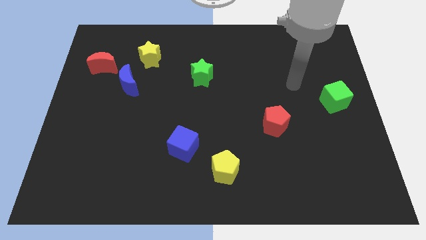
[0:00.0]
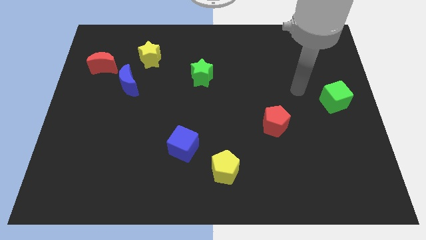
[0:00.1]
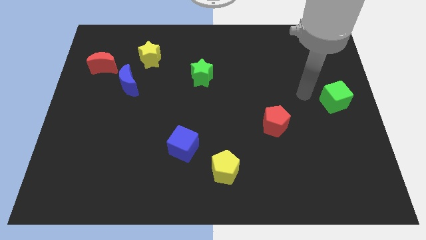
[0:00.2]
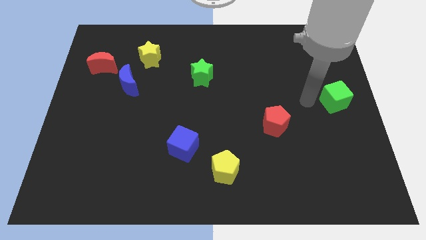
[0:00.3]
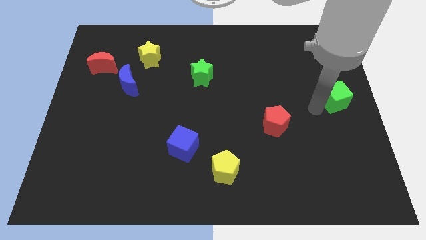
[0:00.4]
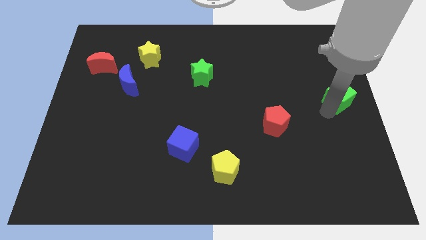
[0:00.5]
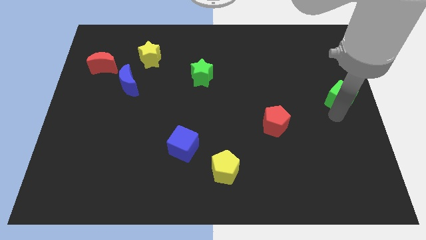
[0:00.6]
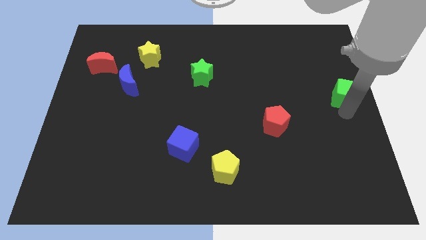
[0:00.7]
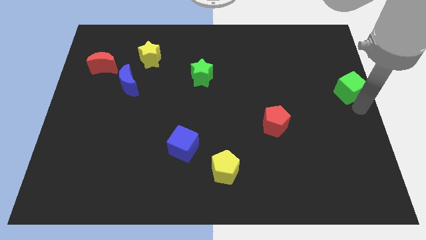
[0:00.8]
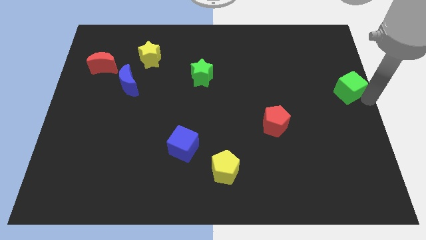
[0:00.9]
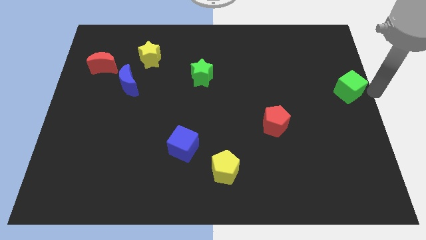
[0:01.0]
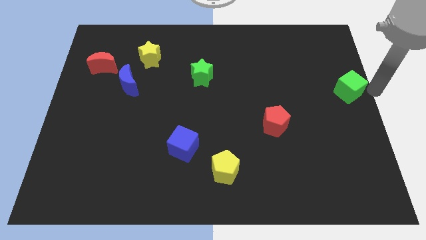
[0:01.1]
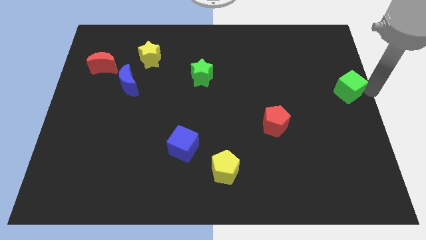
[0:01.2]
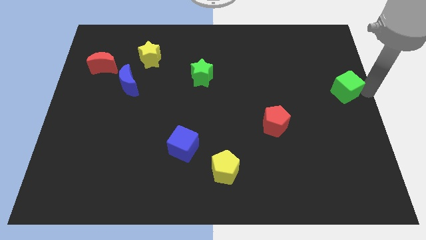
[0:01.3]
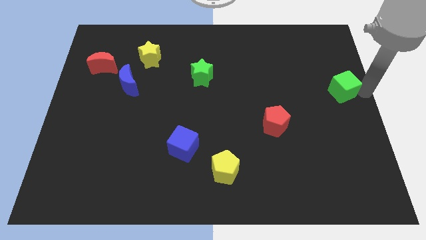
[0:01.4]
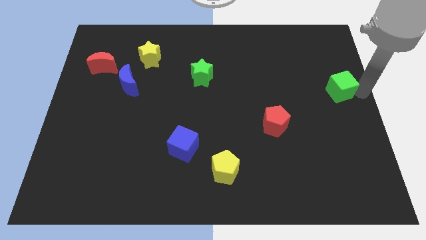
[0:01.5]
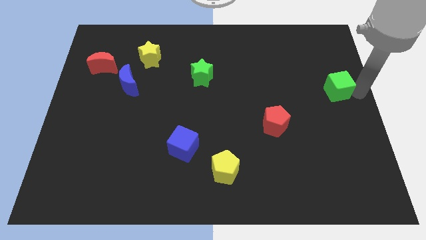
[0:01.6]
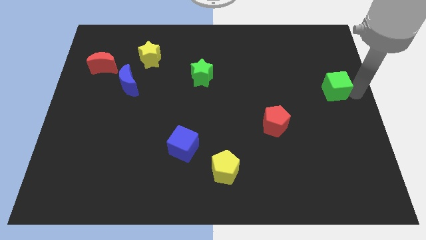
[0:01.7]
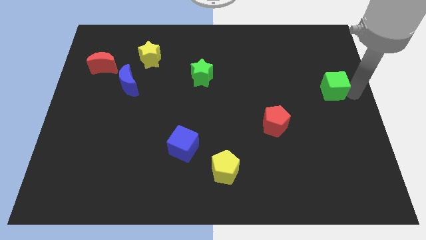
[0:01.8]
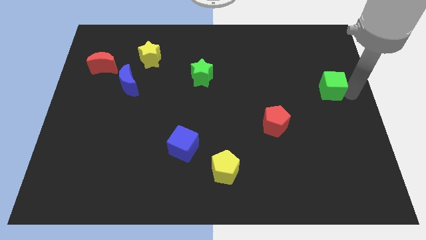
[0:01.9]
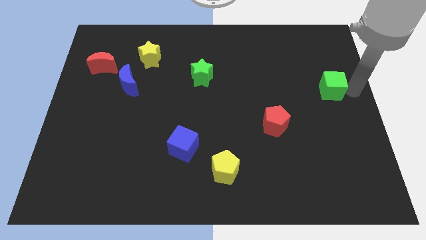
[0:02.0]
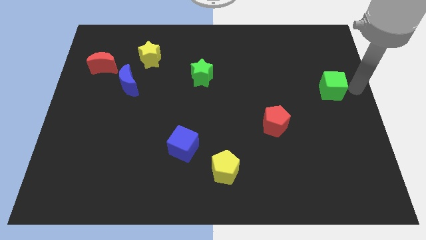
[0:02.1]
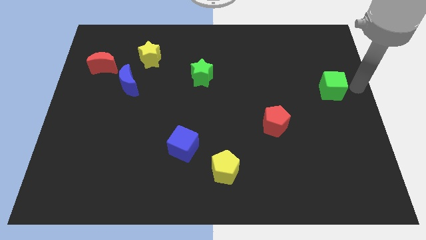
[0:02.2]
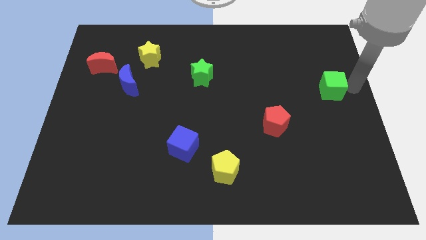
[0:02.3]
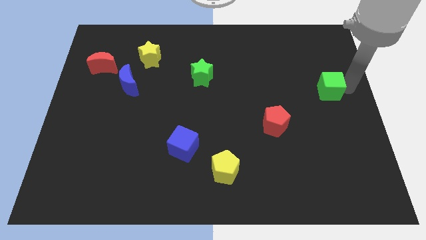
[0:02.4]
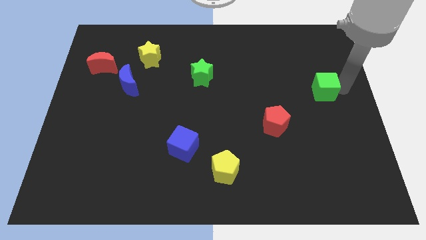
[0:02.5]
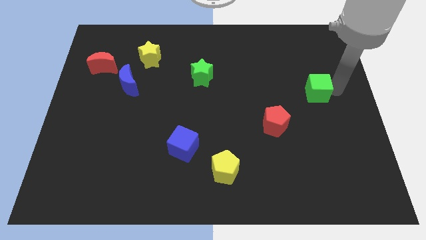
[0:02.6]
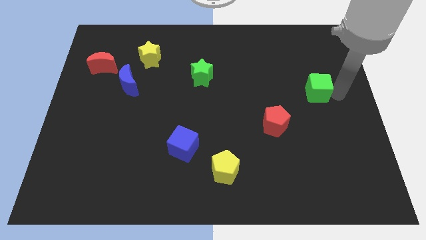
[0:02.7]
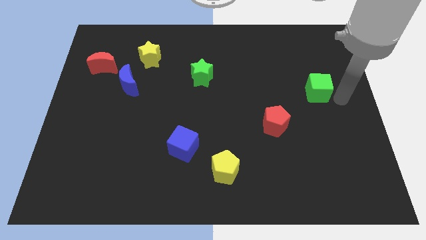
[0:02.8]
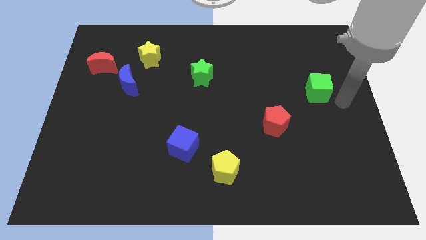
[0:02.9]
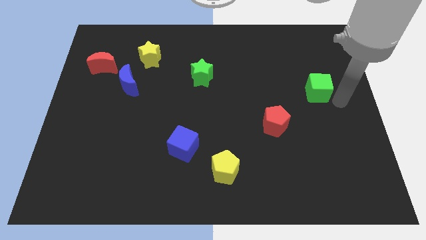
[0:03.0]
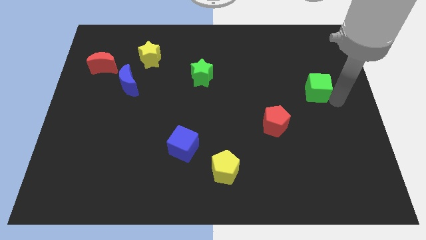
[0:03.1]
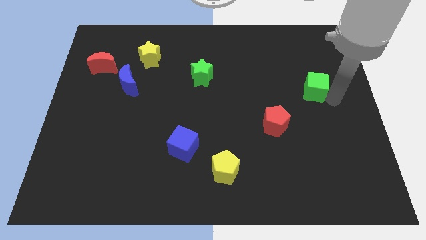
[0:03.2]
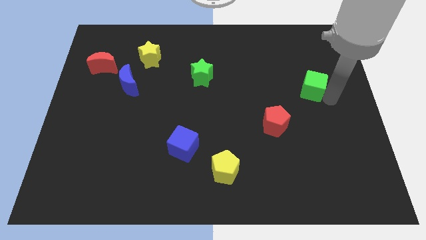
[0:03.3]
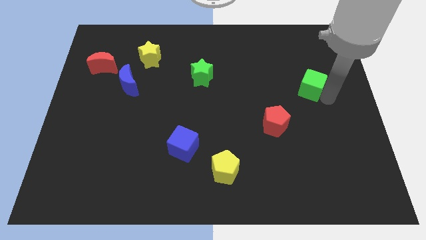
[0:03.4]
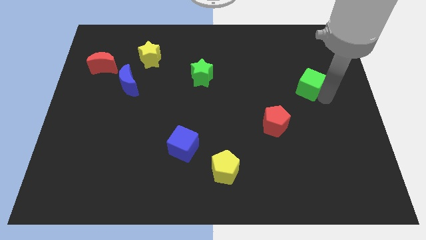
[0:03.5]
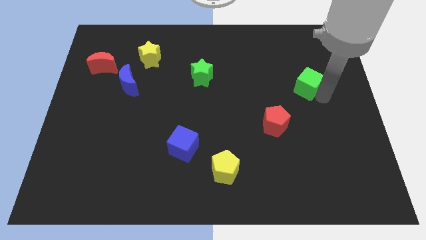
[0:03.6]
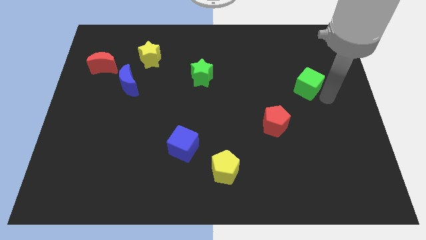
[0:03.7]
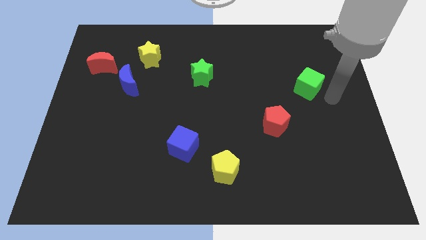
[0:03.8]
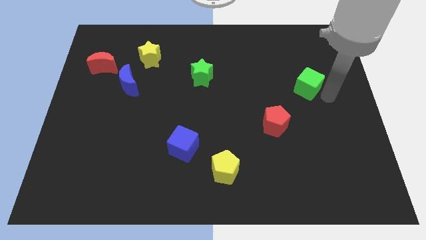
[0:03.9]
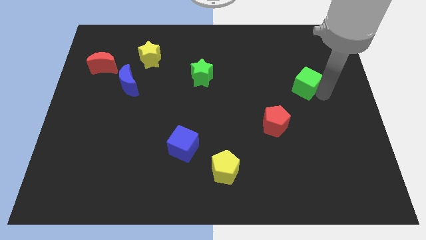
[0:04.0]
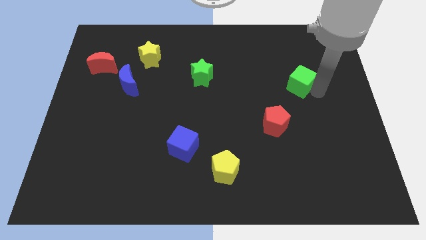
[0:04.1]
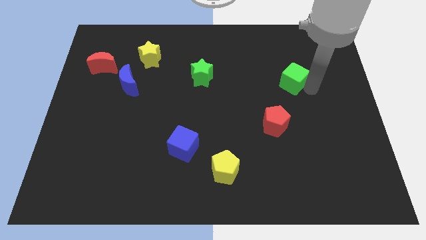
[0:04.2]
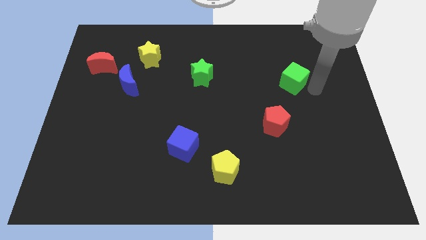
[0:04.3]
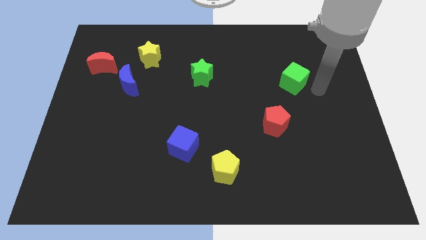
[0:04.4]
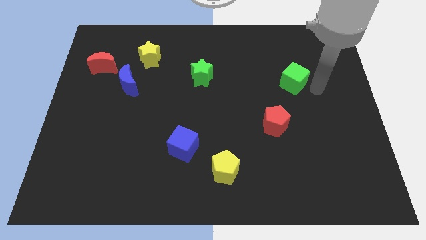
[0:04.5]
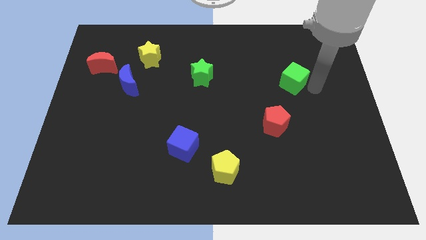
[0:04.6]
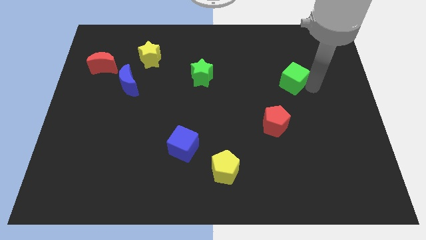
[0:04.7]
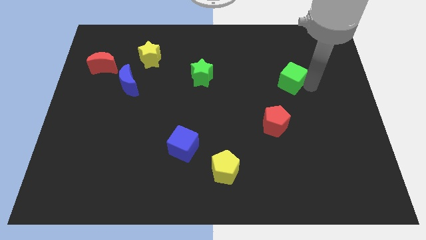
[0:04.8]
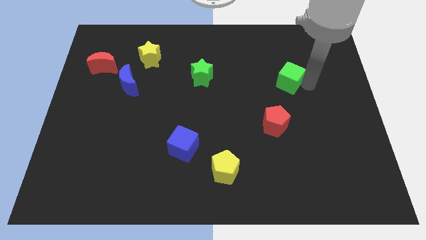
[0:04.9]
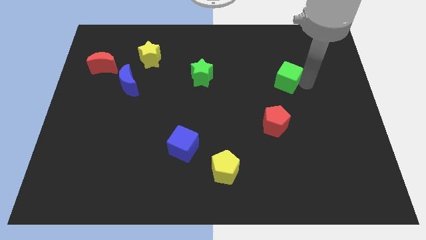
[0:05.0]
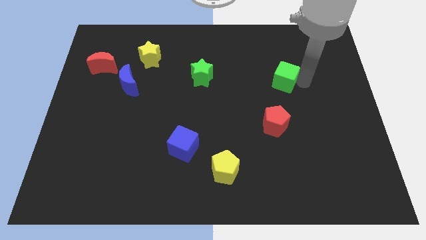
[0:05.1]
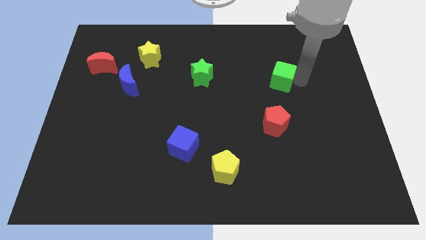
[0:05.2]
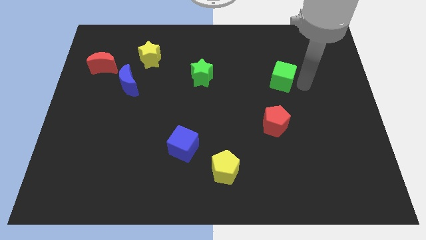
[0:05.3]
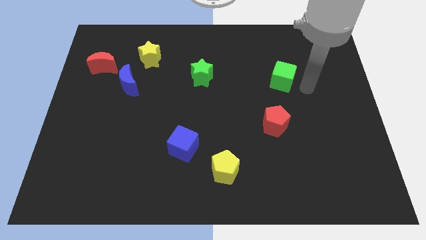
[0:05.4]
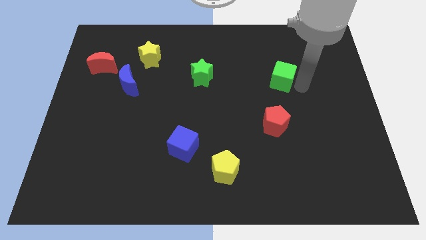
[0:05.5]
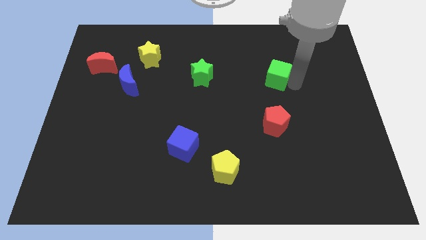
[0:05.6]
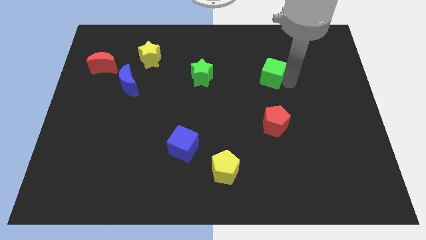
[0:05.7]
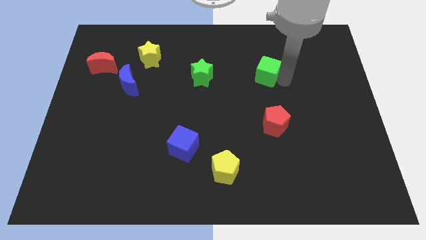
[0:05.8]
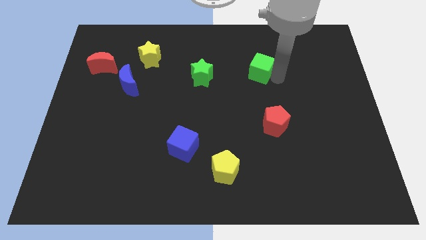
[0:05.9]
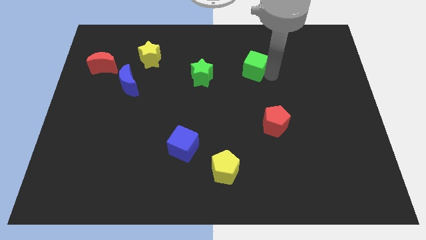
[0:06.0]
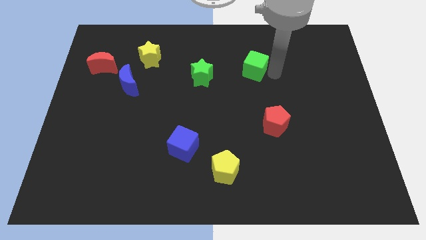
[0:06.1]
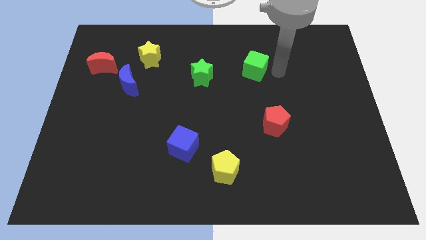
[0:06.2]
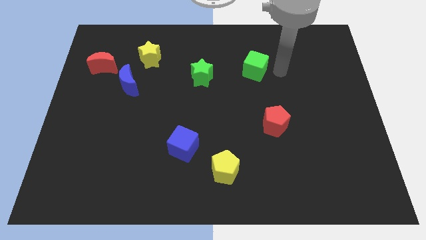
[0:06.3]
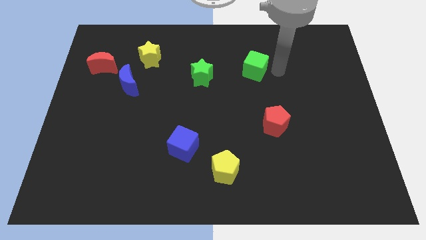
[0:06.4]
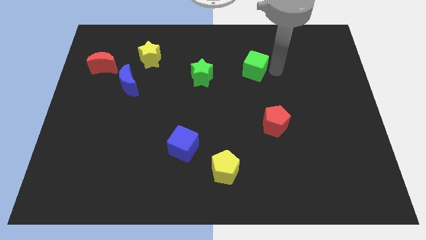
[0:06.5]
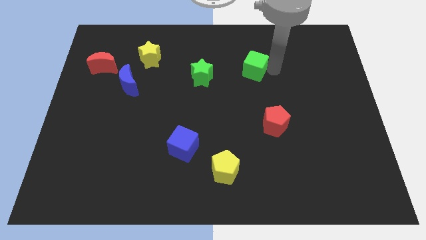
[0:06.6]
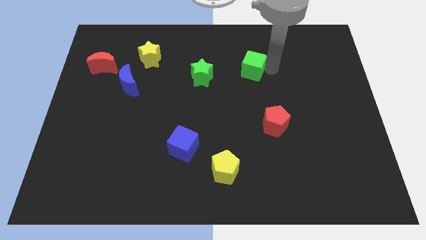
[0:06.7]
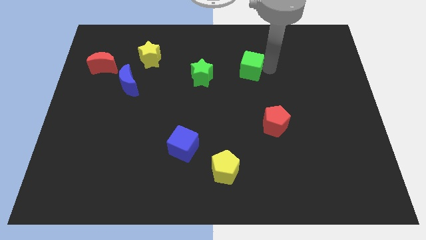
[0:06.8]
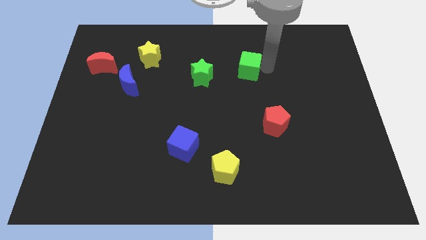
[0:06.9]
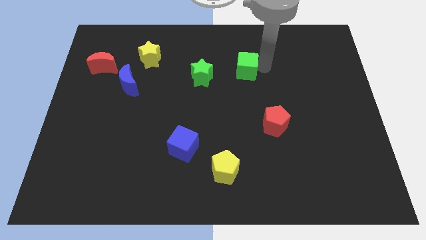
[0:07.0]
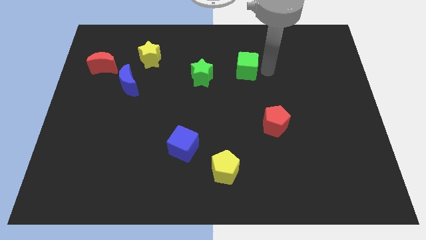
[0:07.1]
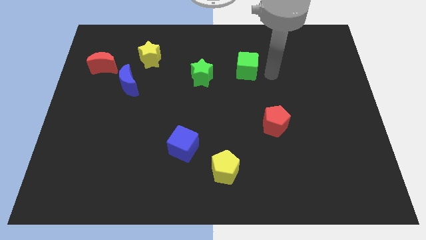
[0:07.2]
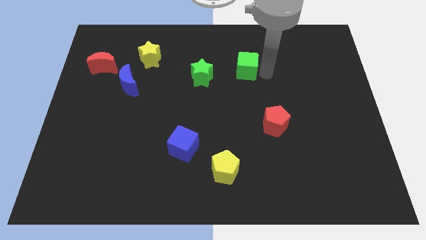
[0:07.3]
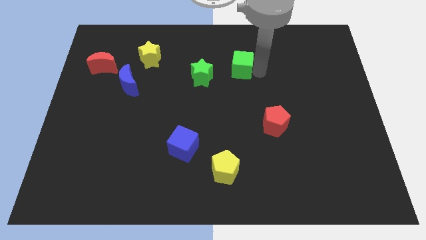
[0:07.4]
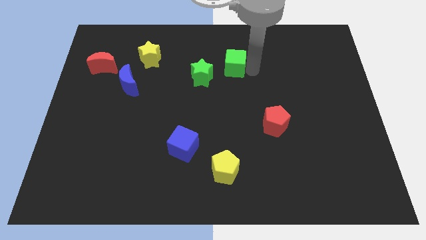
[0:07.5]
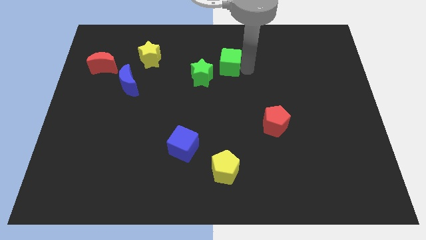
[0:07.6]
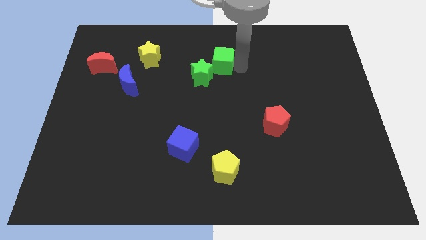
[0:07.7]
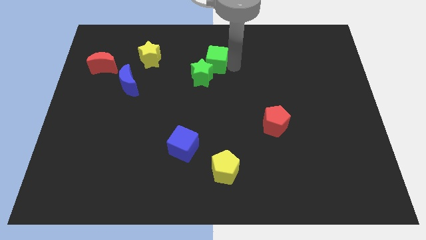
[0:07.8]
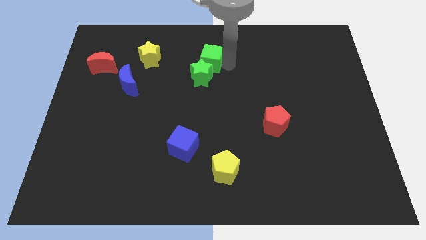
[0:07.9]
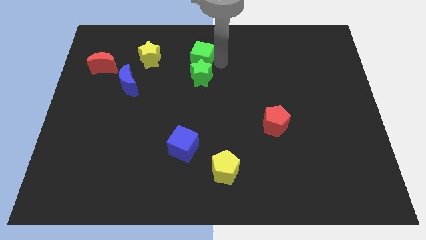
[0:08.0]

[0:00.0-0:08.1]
push the green cube to the top left side of the green star
